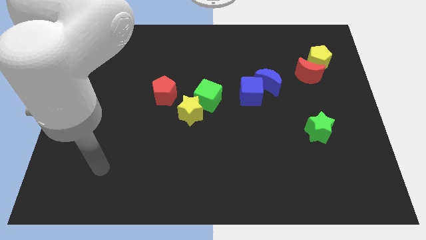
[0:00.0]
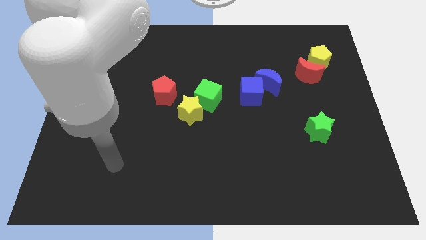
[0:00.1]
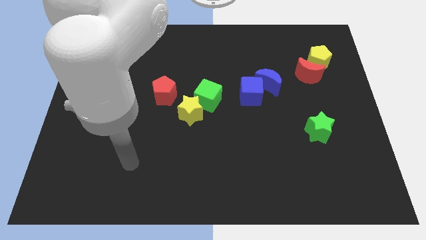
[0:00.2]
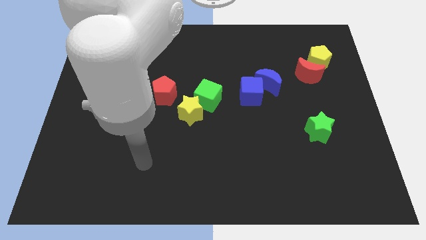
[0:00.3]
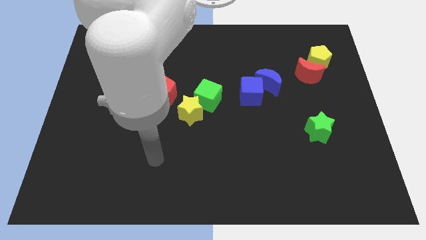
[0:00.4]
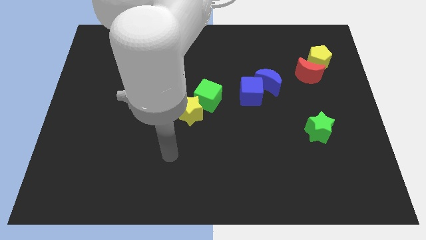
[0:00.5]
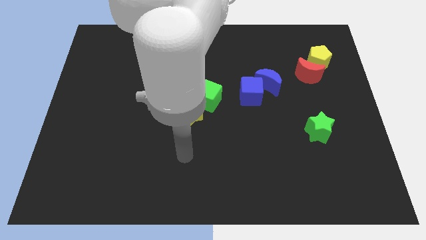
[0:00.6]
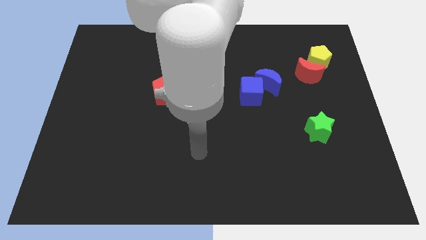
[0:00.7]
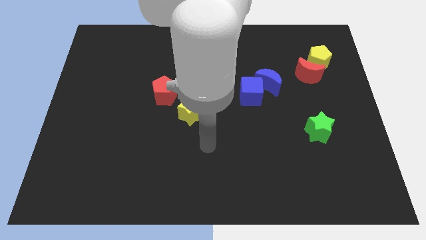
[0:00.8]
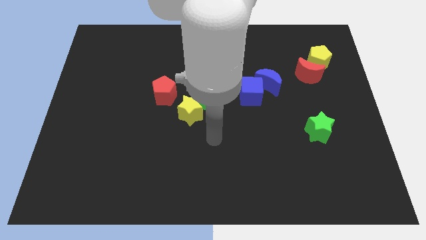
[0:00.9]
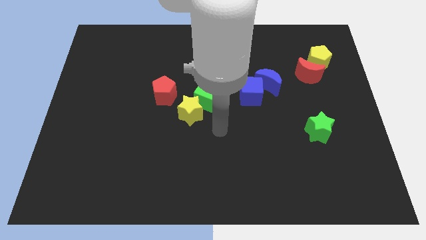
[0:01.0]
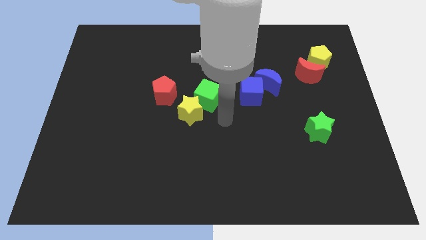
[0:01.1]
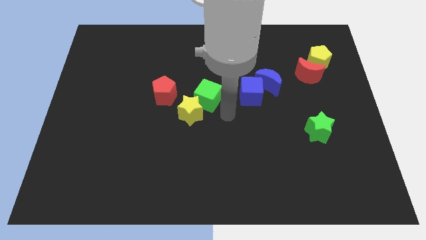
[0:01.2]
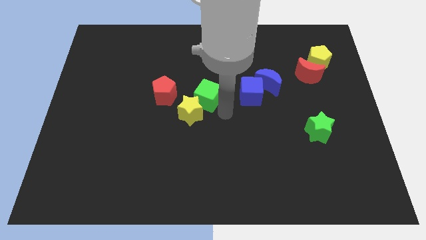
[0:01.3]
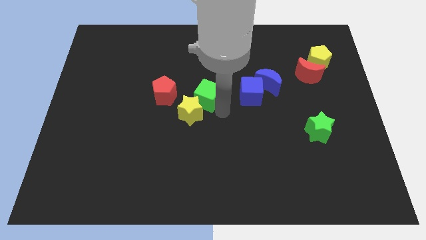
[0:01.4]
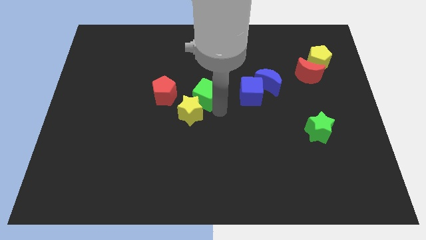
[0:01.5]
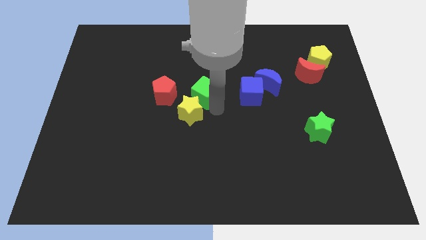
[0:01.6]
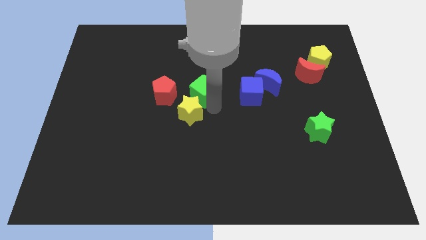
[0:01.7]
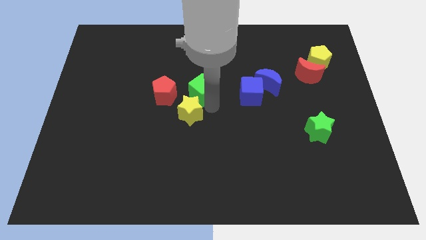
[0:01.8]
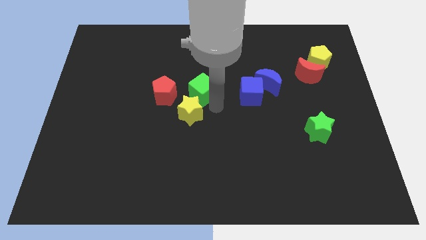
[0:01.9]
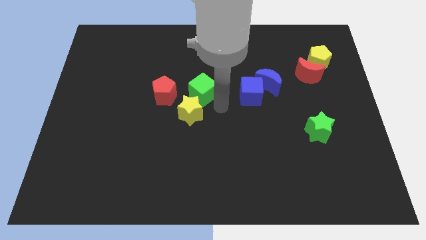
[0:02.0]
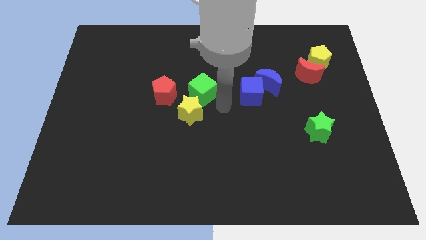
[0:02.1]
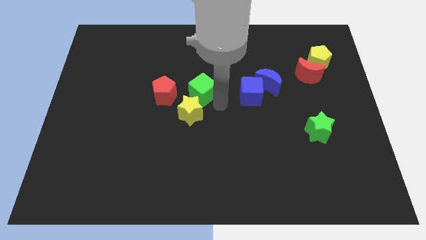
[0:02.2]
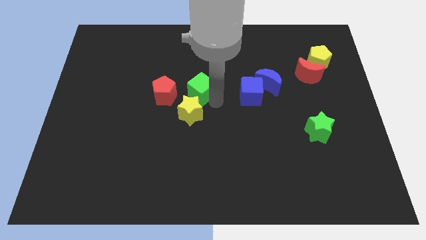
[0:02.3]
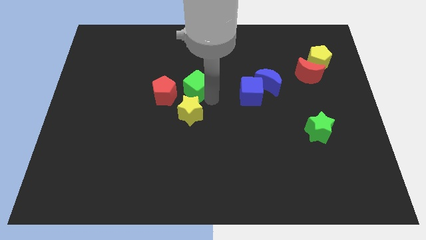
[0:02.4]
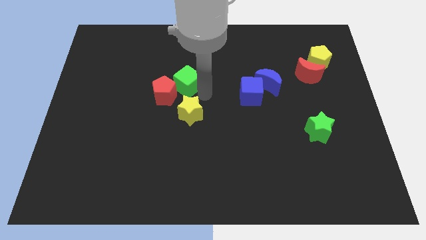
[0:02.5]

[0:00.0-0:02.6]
slide the green cube a little diagonally up and left

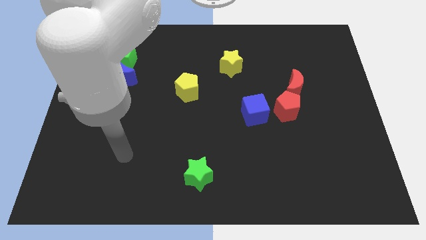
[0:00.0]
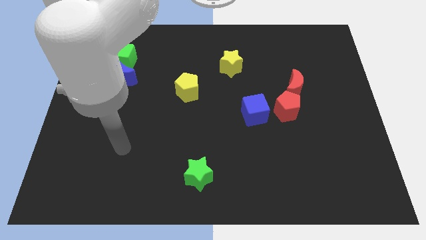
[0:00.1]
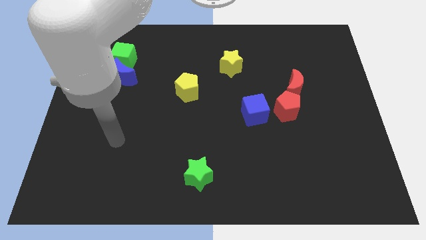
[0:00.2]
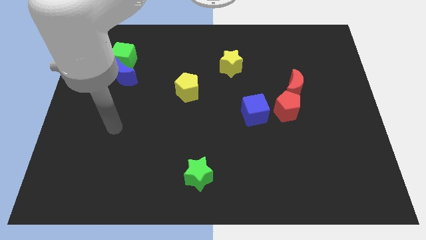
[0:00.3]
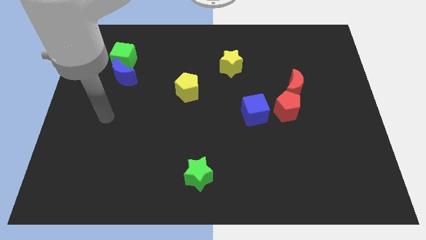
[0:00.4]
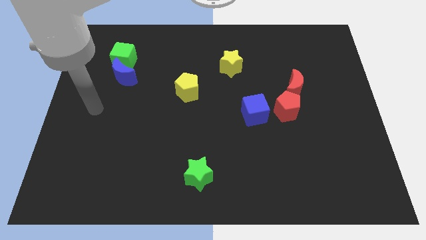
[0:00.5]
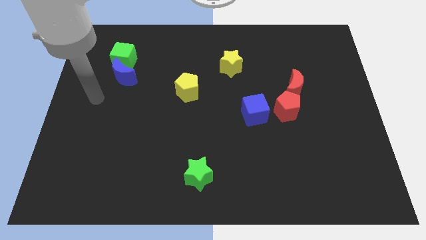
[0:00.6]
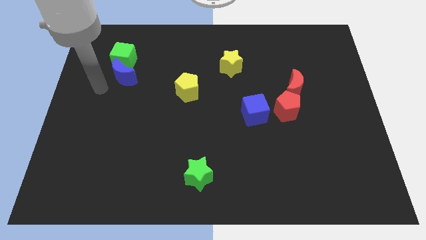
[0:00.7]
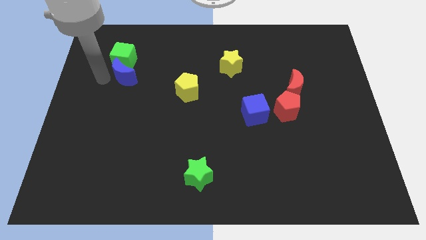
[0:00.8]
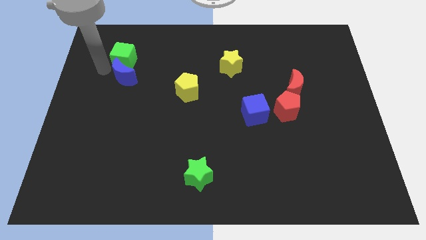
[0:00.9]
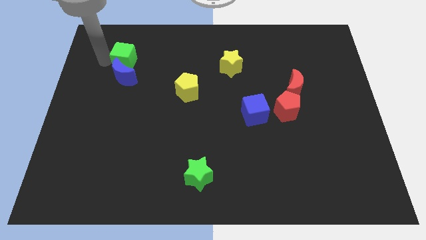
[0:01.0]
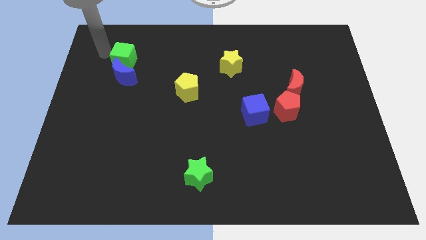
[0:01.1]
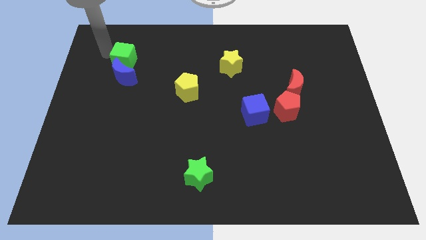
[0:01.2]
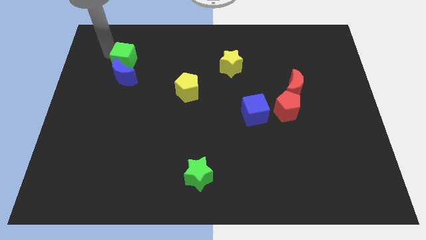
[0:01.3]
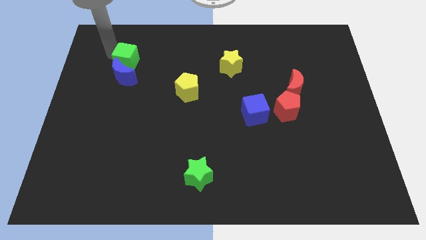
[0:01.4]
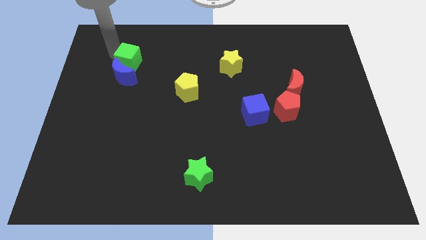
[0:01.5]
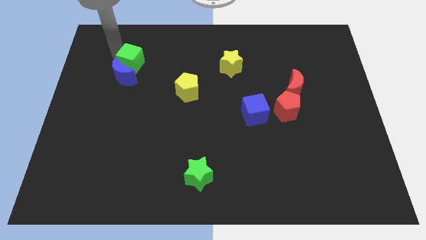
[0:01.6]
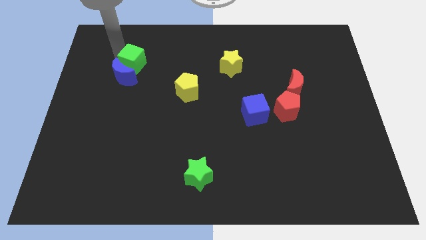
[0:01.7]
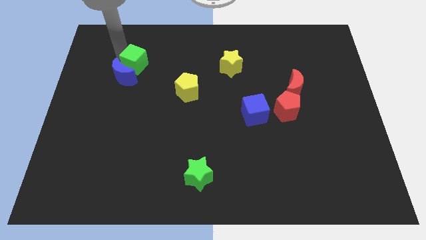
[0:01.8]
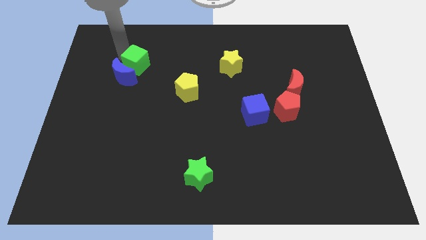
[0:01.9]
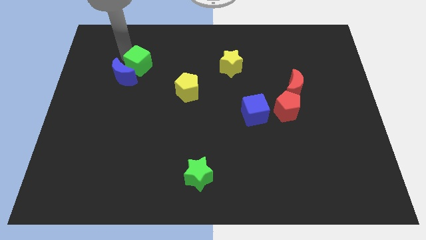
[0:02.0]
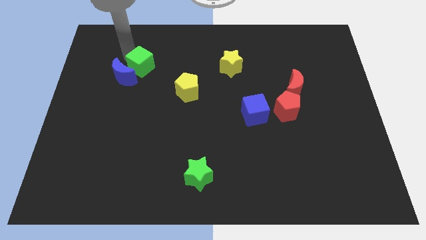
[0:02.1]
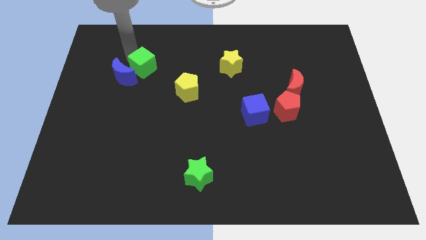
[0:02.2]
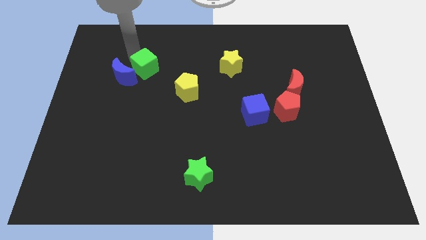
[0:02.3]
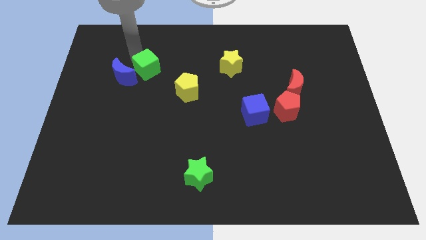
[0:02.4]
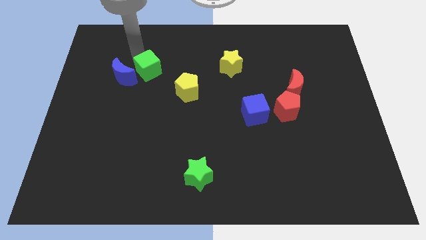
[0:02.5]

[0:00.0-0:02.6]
slightly slide the green cube downwards and to the right diagonally

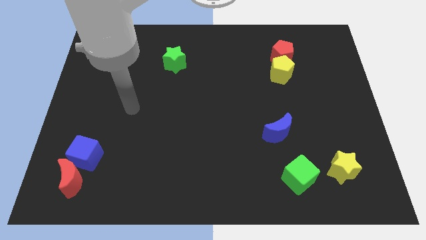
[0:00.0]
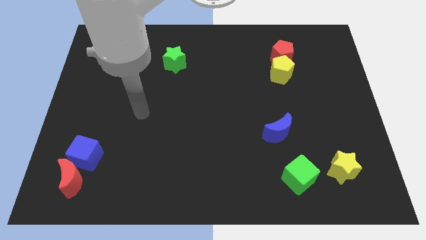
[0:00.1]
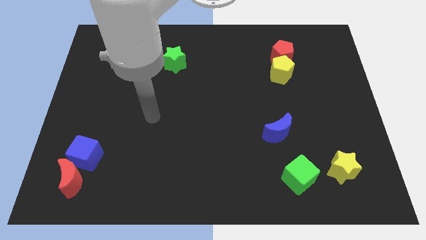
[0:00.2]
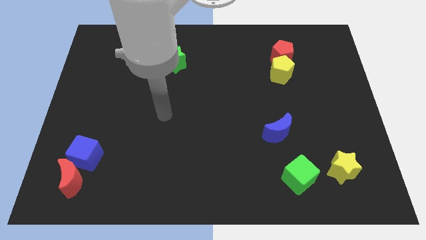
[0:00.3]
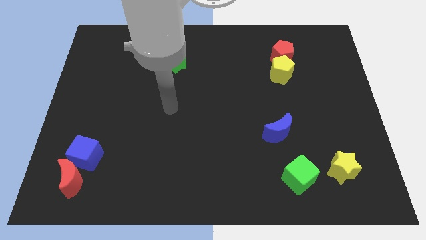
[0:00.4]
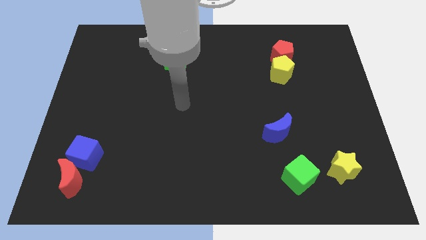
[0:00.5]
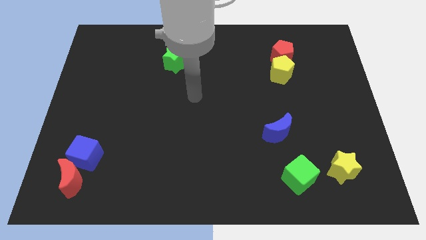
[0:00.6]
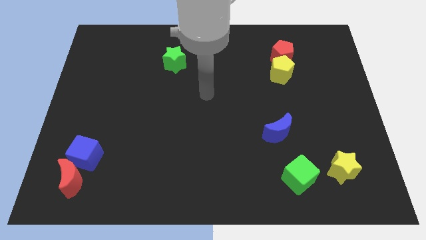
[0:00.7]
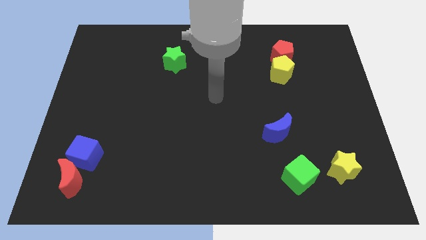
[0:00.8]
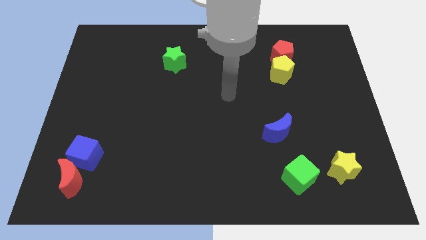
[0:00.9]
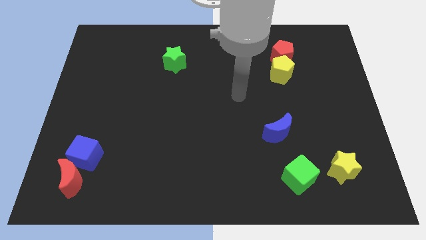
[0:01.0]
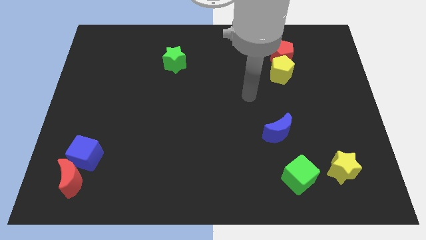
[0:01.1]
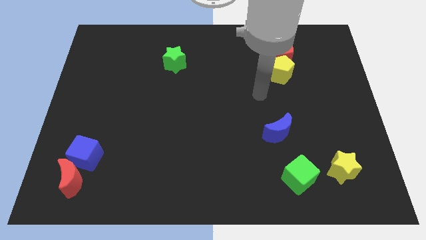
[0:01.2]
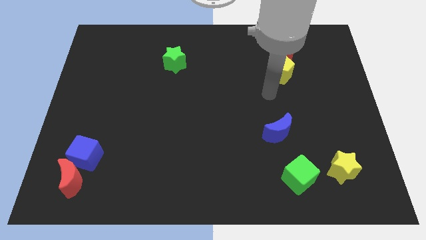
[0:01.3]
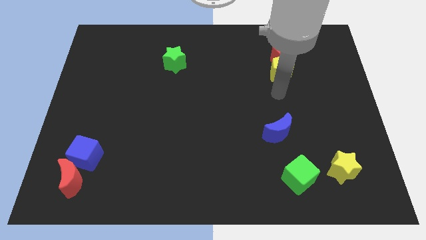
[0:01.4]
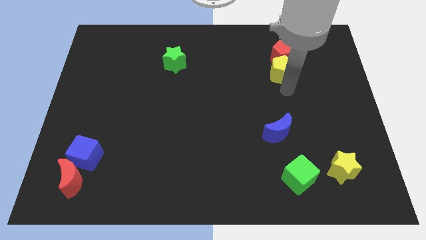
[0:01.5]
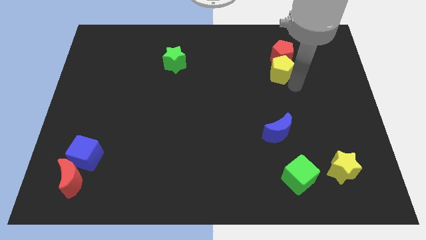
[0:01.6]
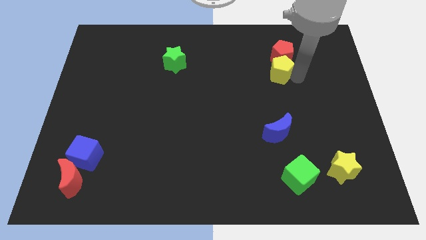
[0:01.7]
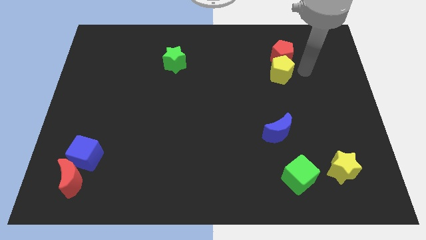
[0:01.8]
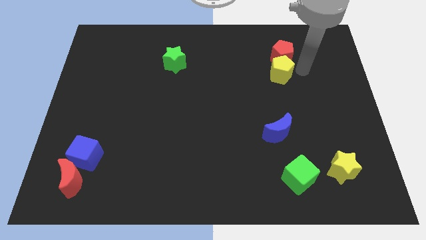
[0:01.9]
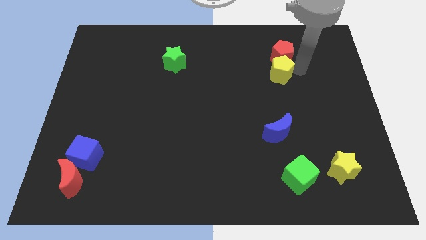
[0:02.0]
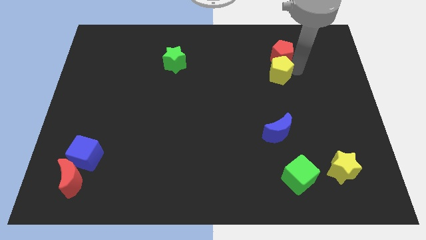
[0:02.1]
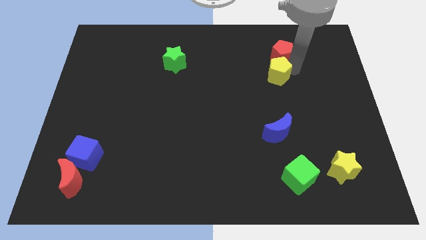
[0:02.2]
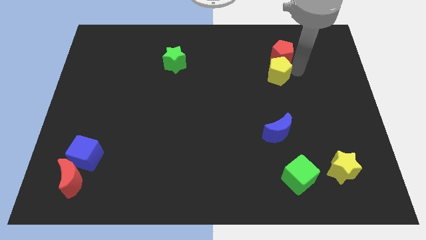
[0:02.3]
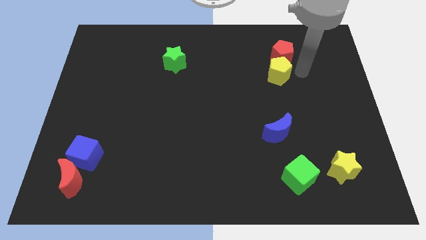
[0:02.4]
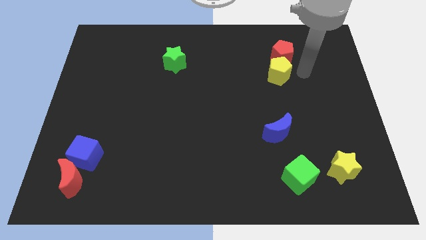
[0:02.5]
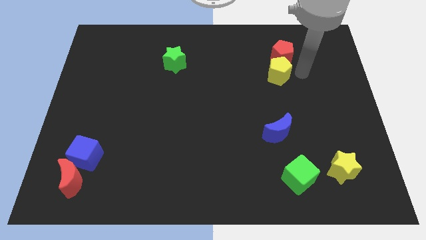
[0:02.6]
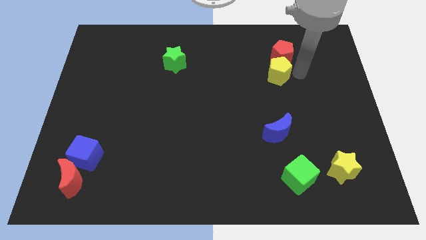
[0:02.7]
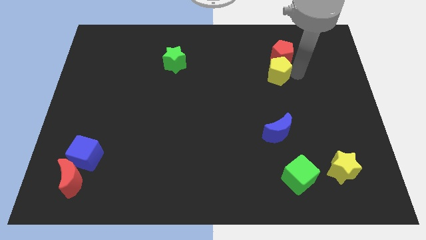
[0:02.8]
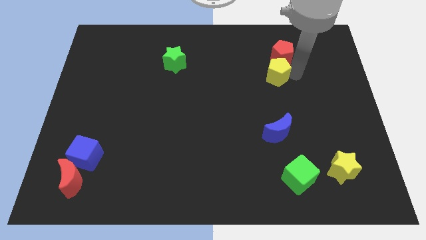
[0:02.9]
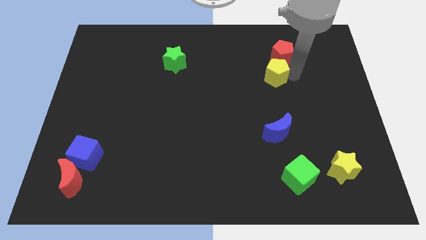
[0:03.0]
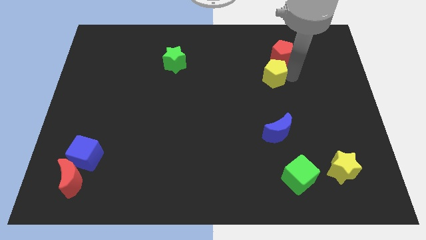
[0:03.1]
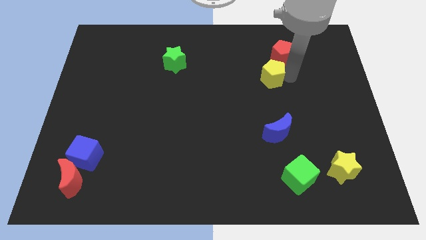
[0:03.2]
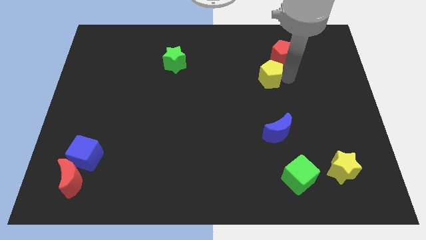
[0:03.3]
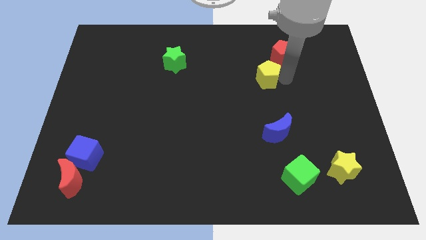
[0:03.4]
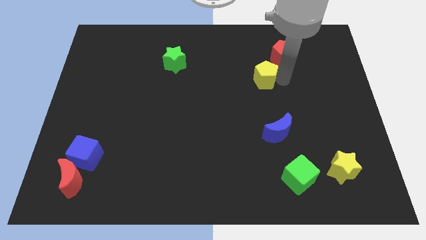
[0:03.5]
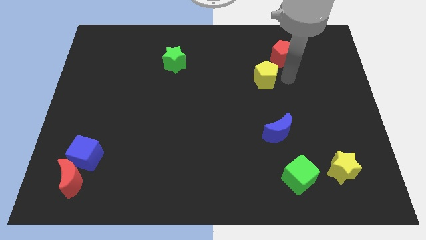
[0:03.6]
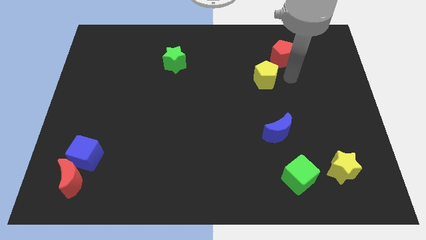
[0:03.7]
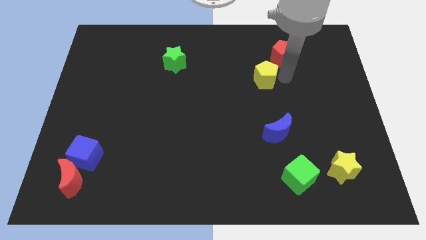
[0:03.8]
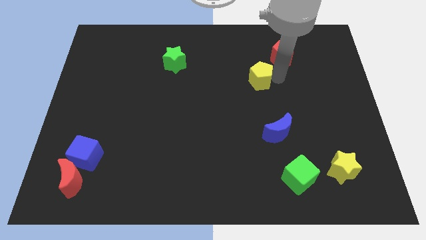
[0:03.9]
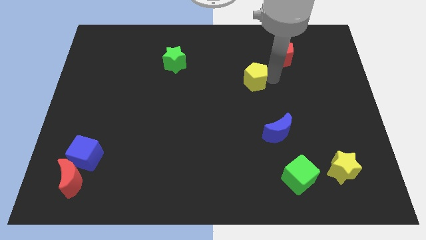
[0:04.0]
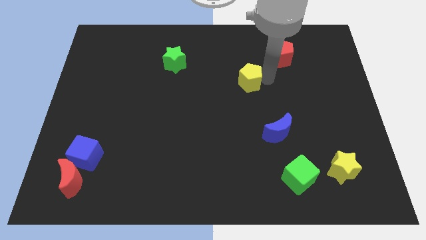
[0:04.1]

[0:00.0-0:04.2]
slightly slide the yellow pentagon to the left
